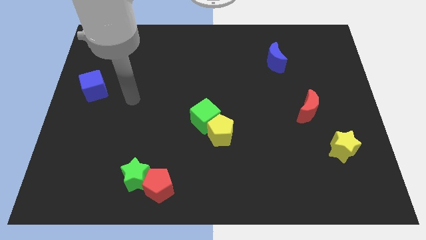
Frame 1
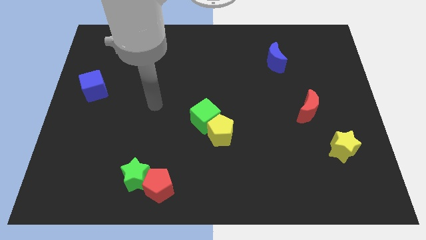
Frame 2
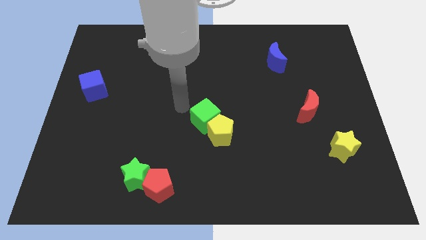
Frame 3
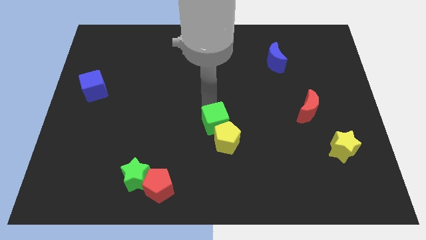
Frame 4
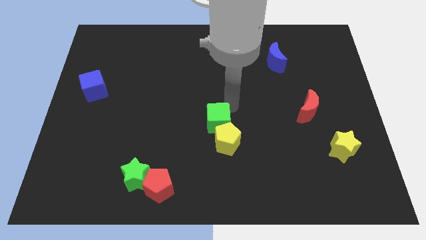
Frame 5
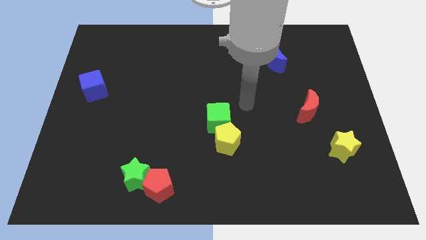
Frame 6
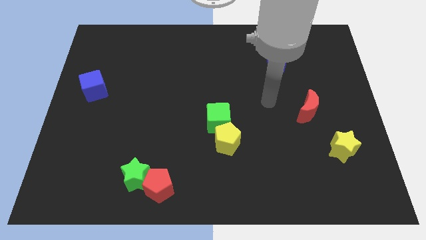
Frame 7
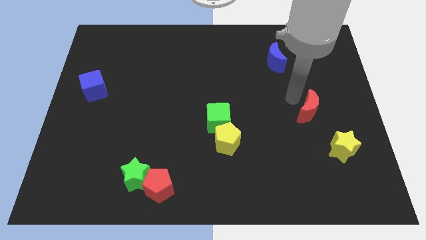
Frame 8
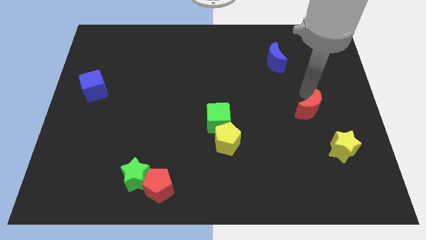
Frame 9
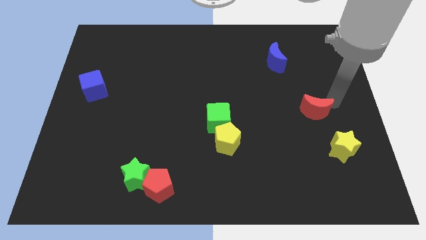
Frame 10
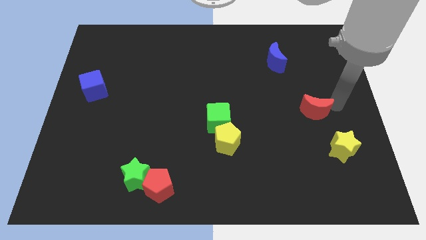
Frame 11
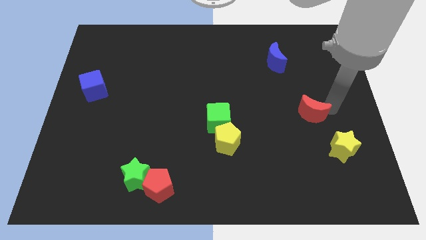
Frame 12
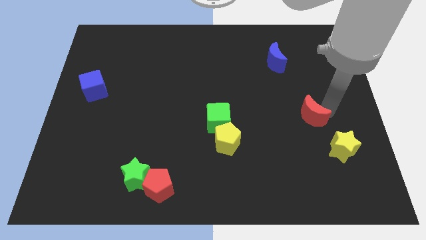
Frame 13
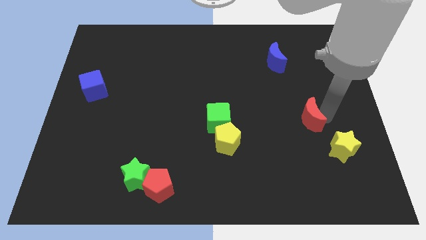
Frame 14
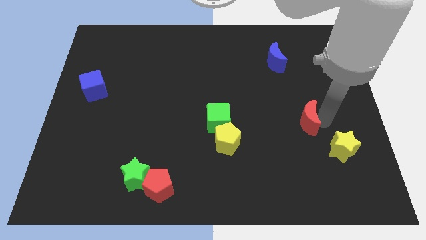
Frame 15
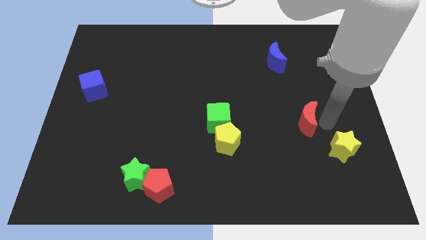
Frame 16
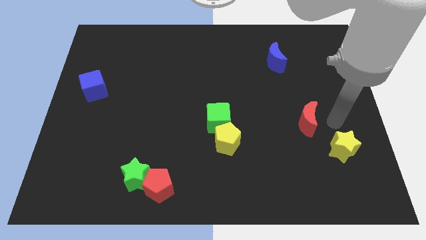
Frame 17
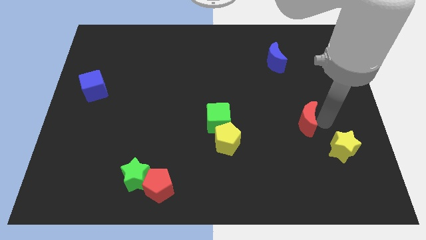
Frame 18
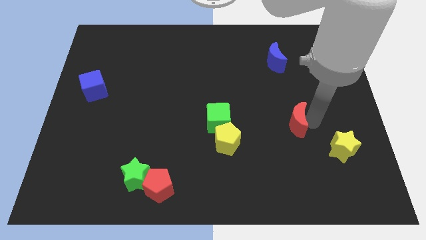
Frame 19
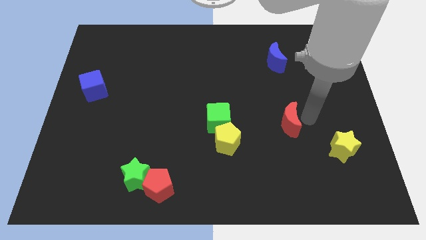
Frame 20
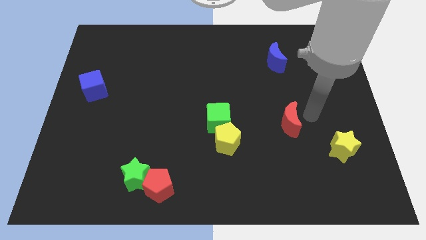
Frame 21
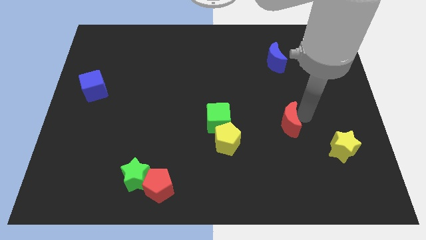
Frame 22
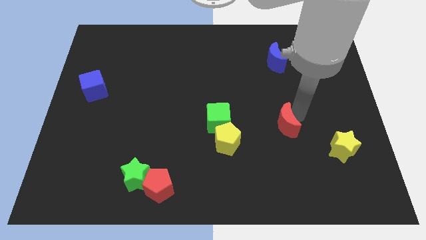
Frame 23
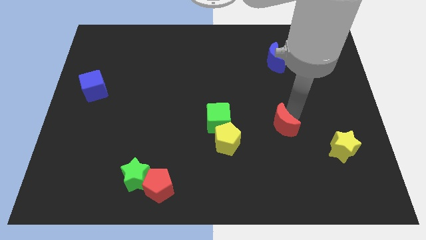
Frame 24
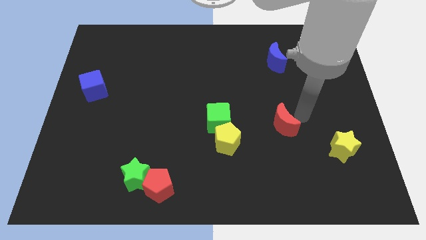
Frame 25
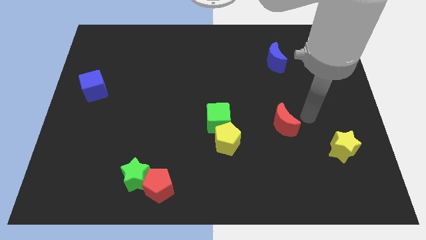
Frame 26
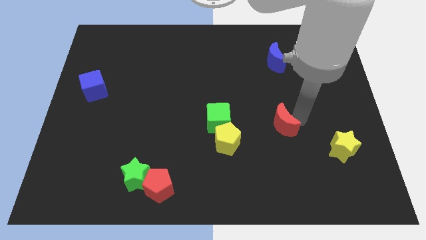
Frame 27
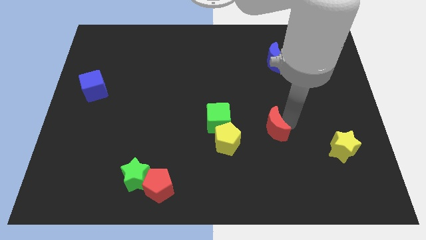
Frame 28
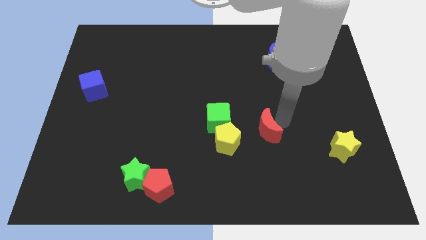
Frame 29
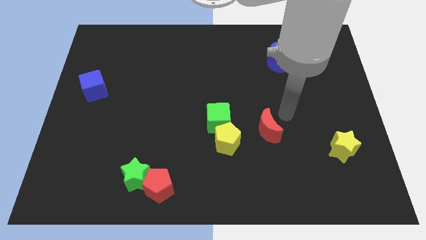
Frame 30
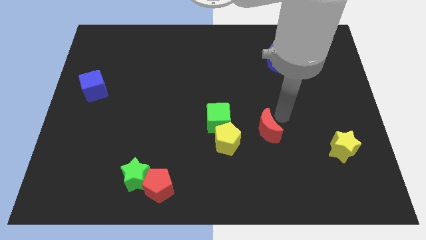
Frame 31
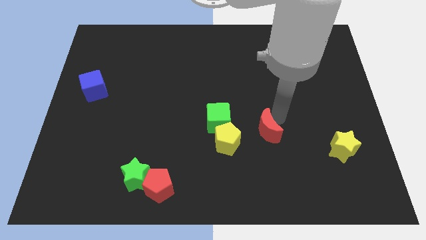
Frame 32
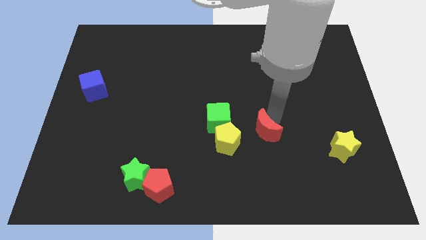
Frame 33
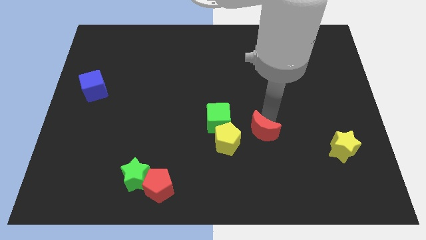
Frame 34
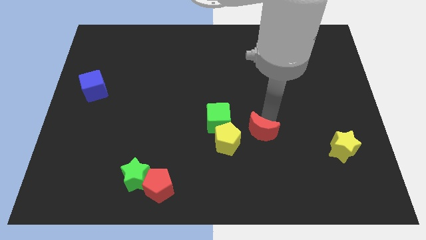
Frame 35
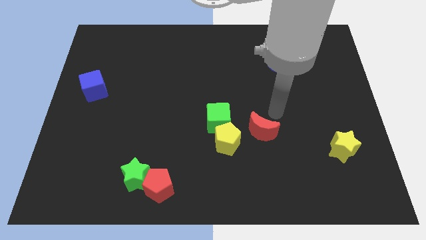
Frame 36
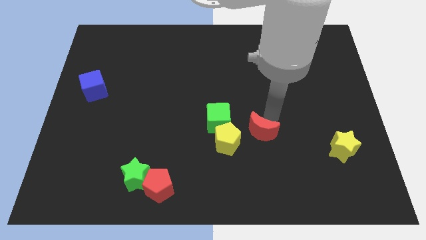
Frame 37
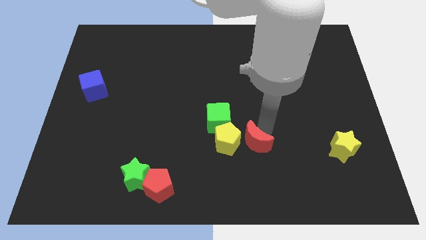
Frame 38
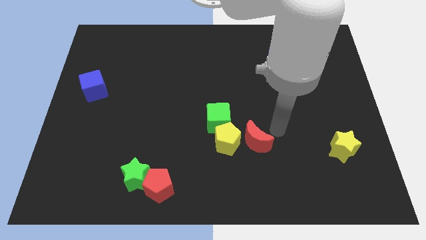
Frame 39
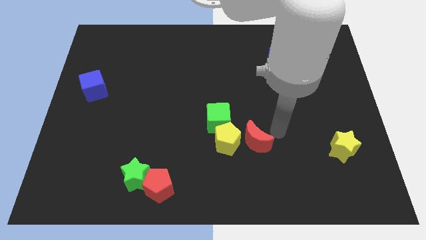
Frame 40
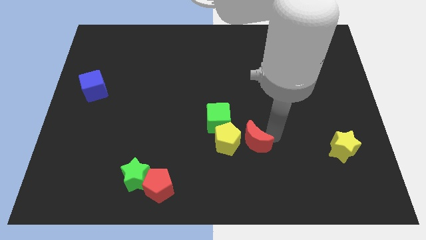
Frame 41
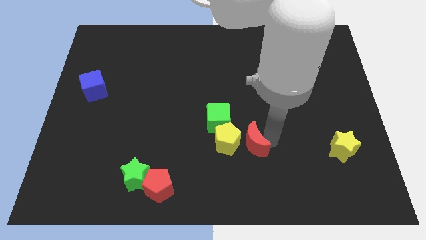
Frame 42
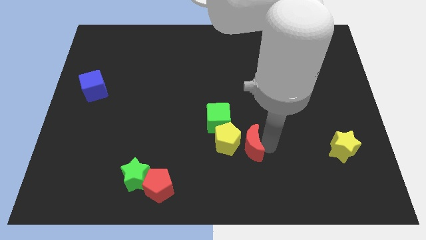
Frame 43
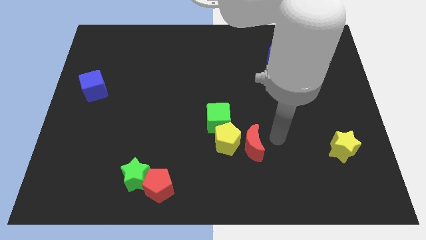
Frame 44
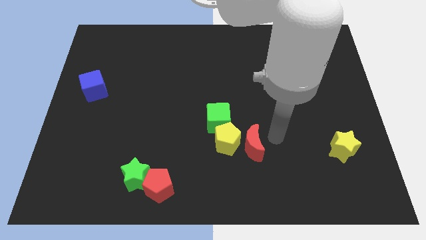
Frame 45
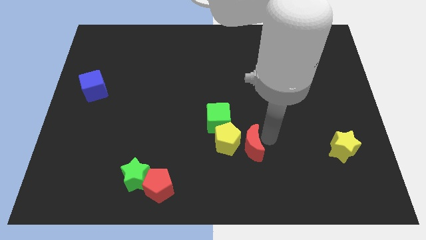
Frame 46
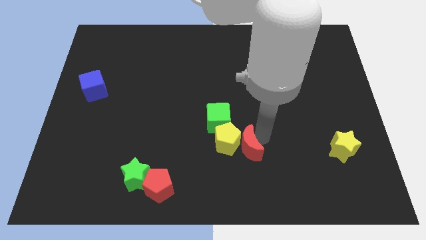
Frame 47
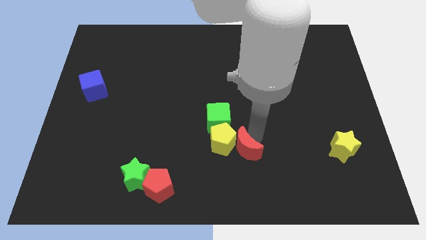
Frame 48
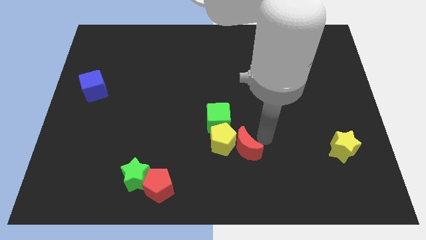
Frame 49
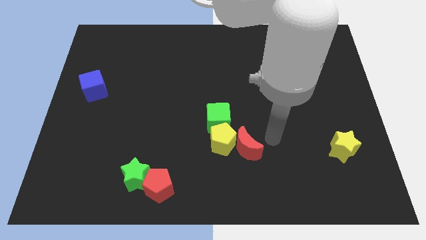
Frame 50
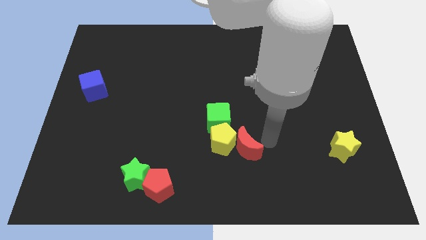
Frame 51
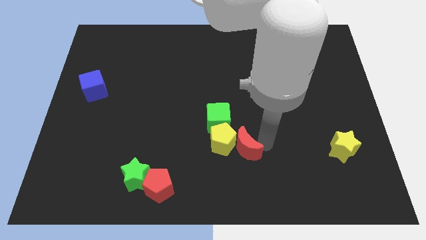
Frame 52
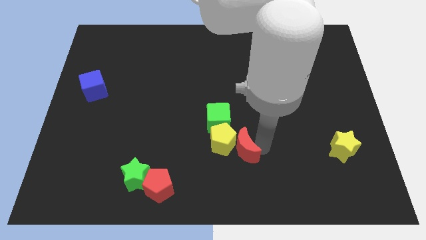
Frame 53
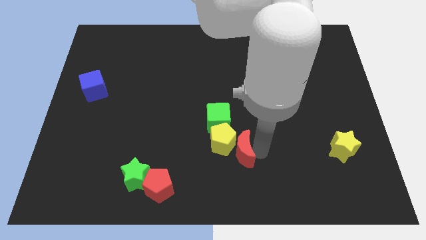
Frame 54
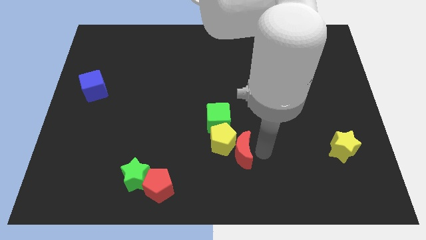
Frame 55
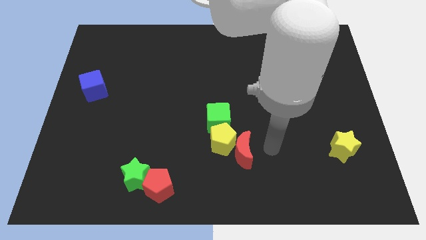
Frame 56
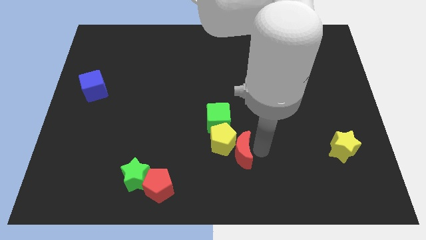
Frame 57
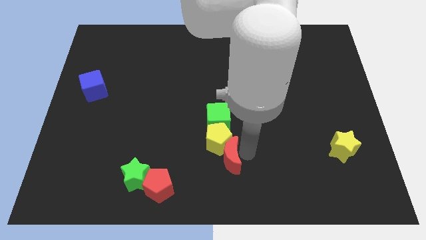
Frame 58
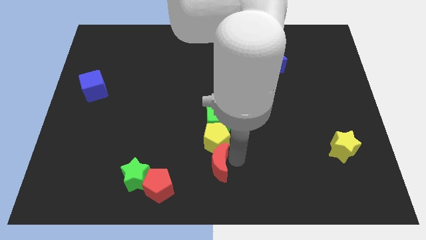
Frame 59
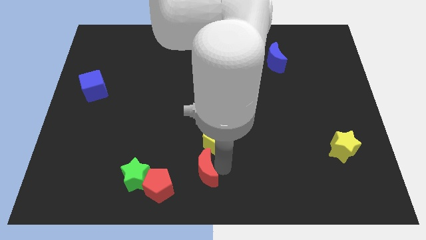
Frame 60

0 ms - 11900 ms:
push the red moon diagonally up and to the right of the red pentagon

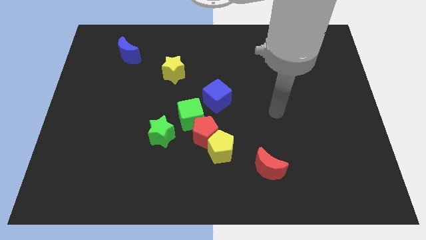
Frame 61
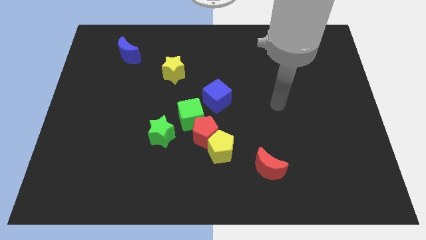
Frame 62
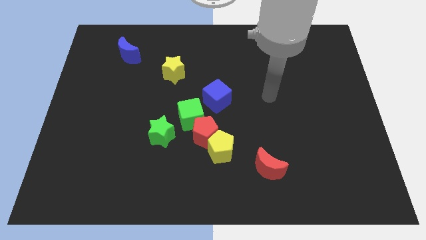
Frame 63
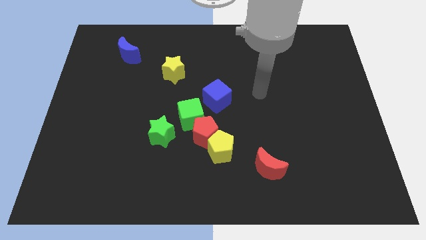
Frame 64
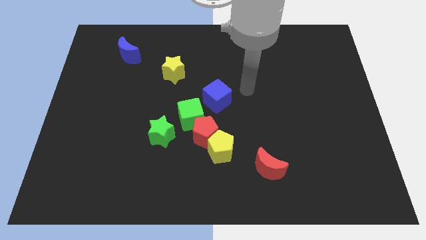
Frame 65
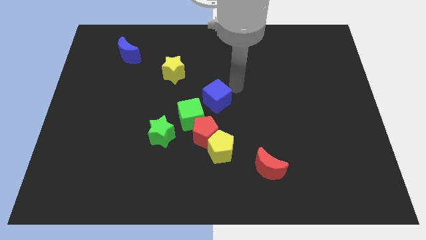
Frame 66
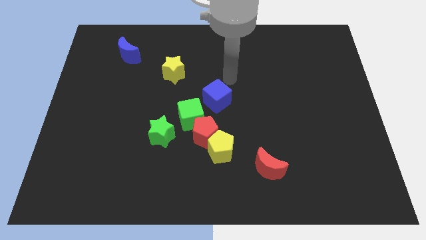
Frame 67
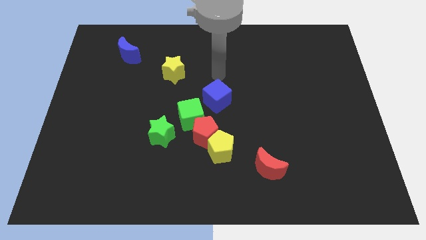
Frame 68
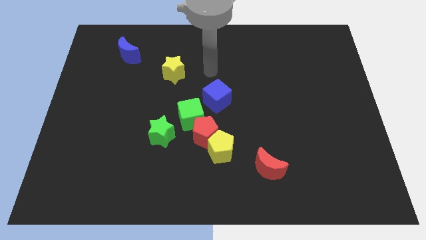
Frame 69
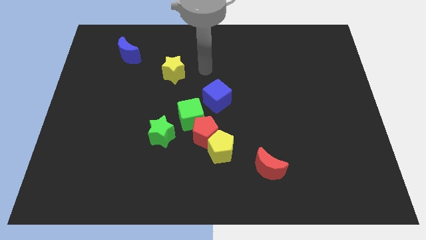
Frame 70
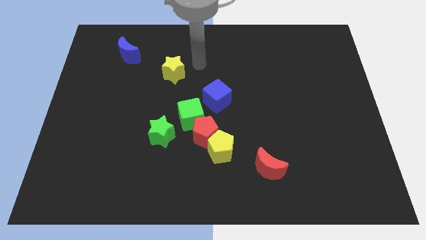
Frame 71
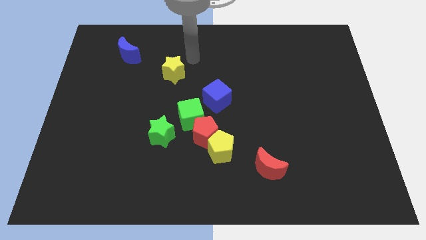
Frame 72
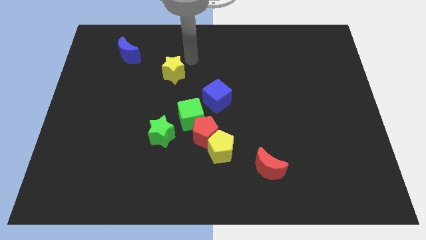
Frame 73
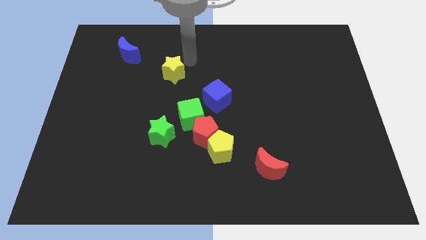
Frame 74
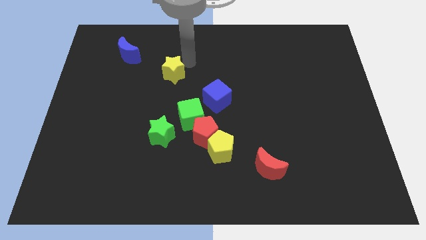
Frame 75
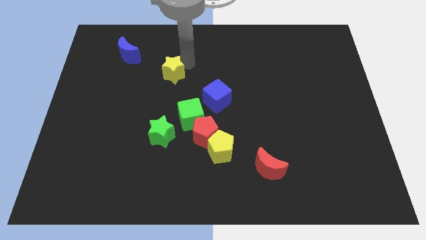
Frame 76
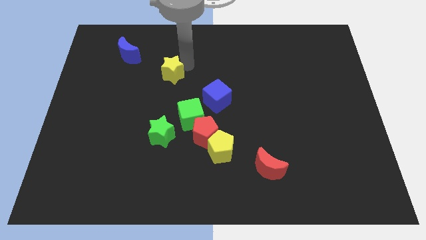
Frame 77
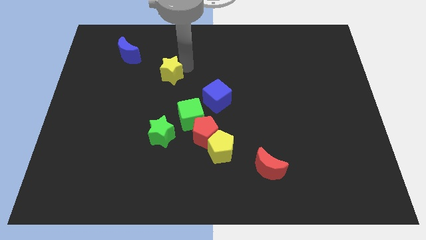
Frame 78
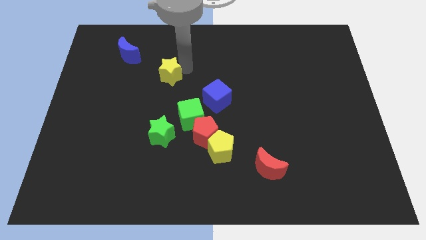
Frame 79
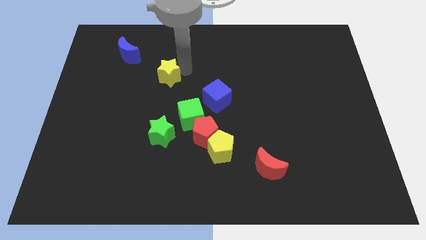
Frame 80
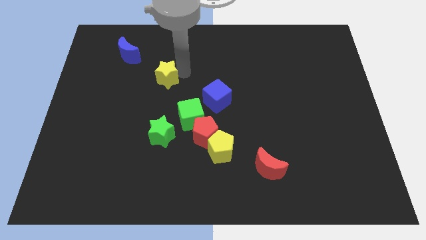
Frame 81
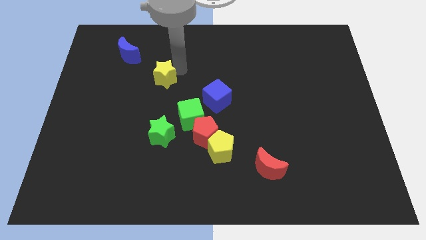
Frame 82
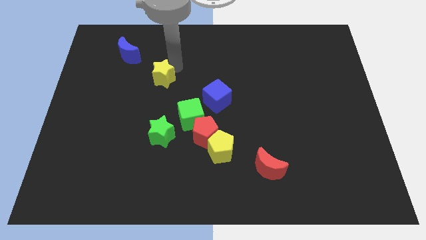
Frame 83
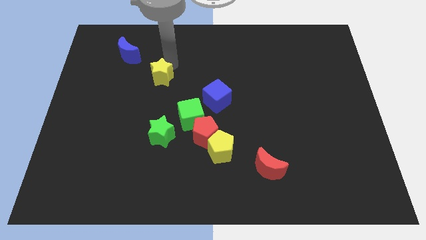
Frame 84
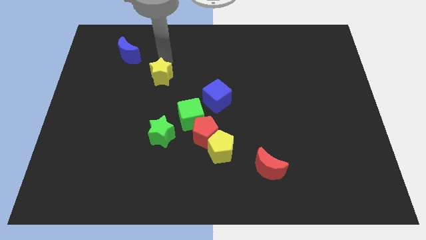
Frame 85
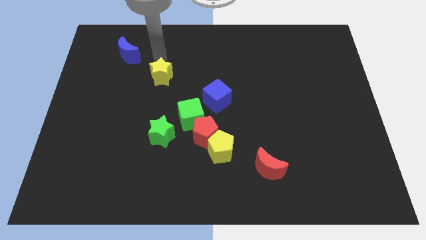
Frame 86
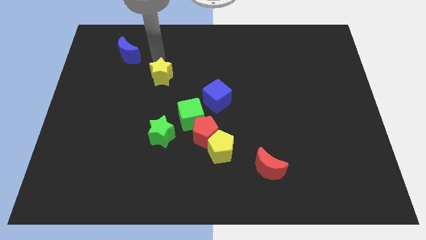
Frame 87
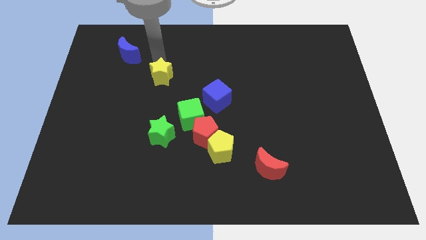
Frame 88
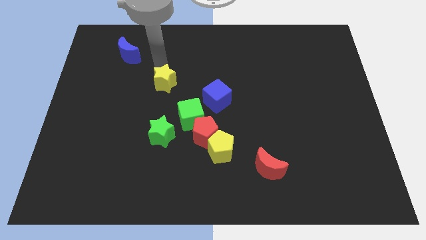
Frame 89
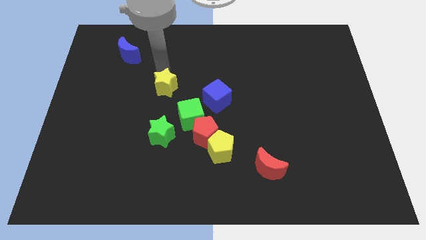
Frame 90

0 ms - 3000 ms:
put the yellow star diagonally up and to the left of the green cube
